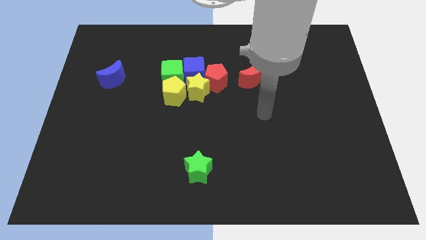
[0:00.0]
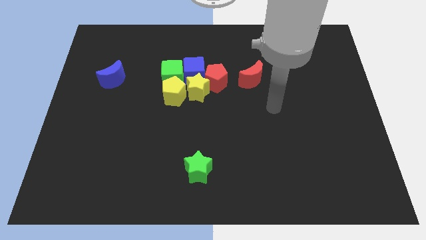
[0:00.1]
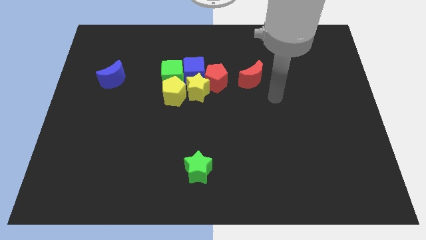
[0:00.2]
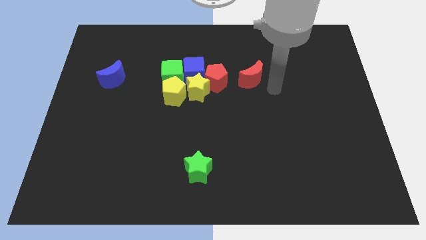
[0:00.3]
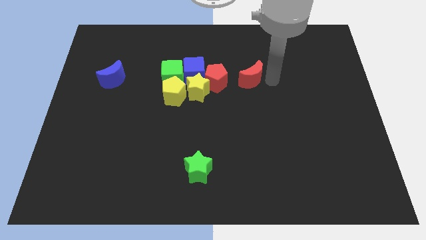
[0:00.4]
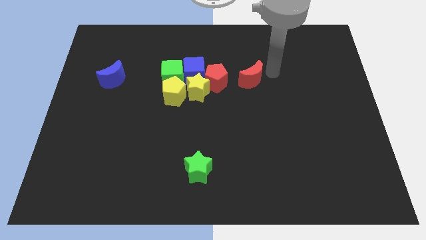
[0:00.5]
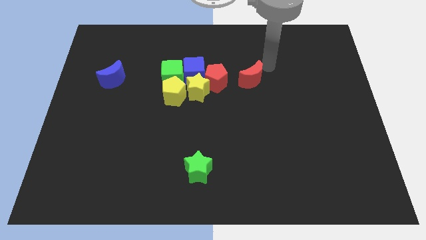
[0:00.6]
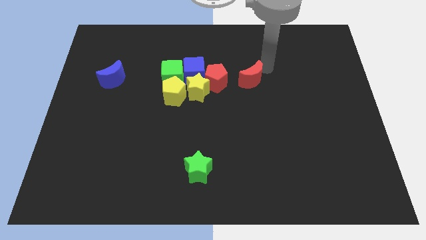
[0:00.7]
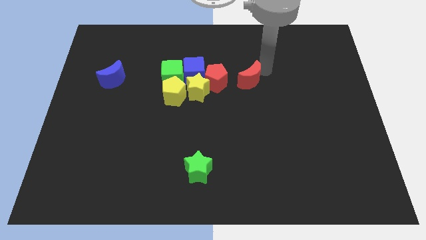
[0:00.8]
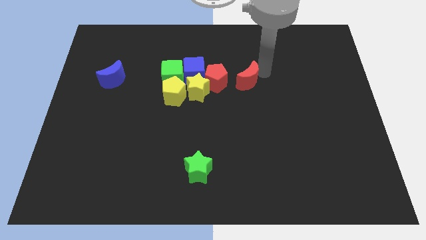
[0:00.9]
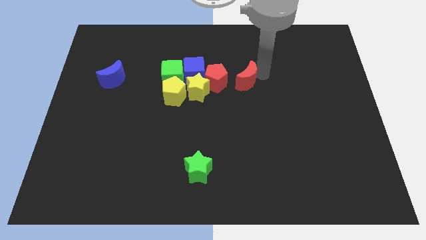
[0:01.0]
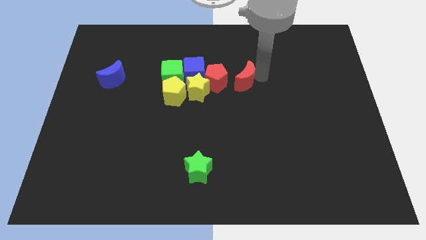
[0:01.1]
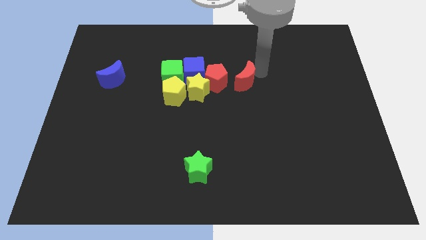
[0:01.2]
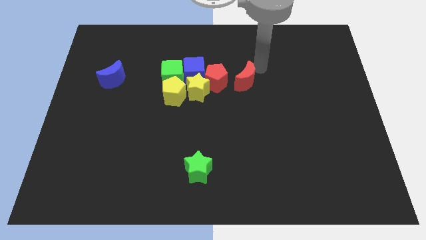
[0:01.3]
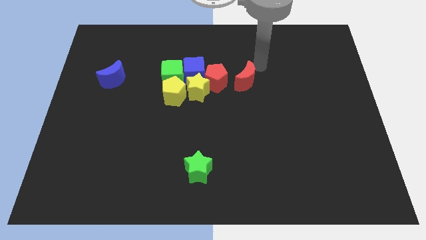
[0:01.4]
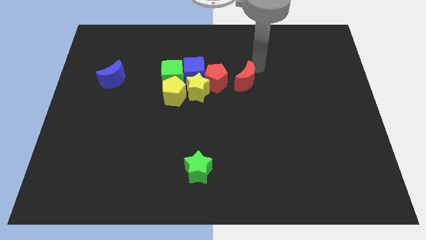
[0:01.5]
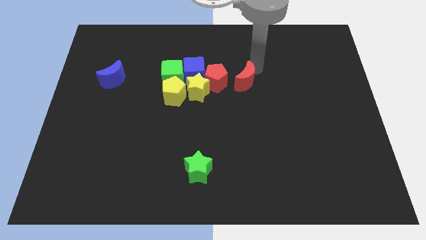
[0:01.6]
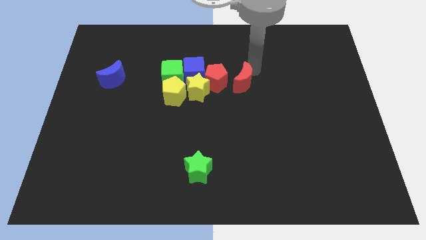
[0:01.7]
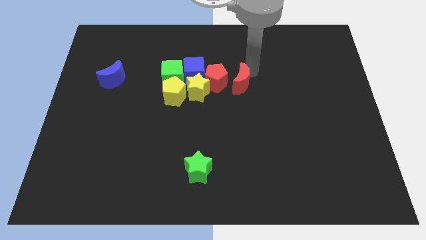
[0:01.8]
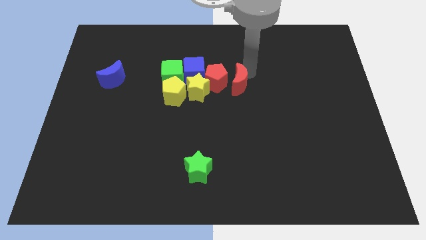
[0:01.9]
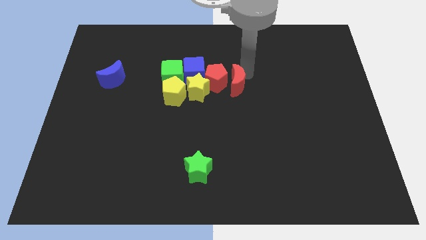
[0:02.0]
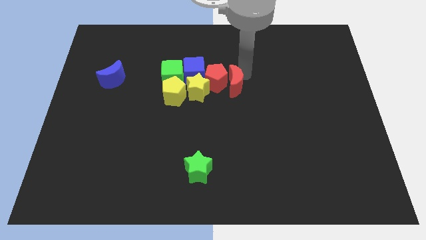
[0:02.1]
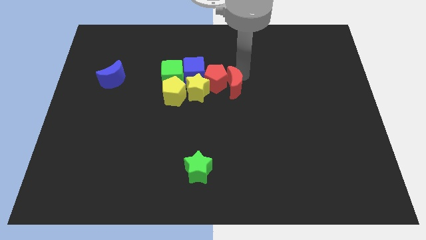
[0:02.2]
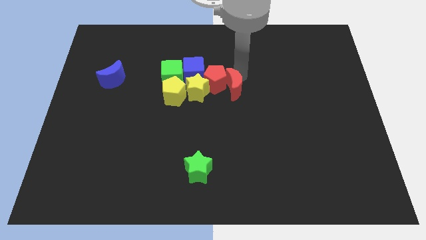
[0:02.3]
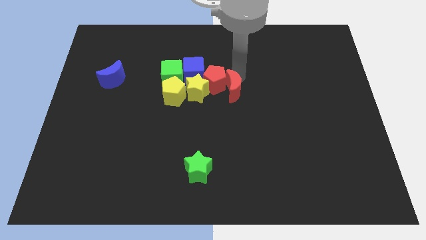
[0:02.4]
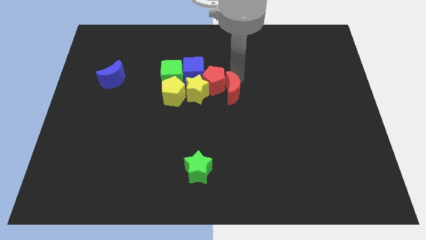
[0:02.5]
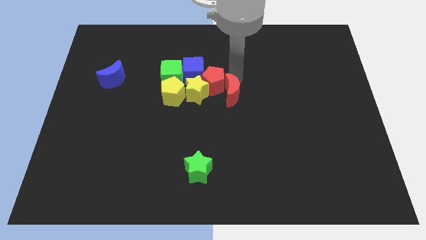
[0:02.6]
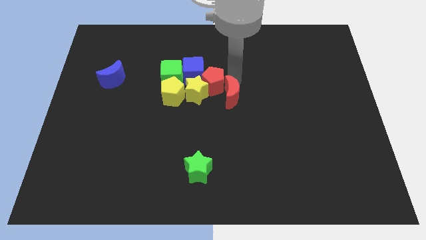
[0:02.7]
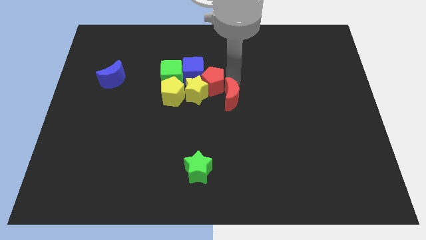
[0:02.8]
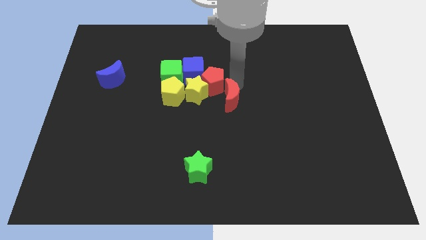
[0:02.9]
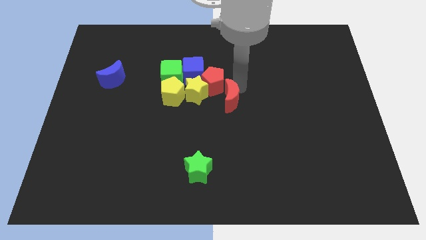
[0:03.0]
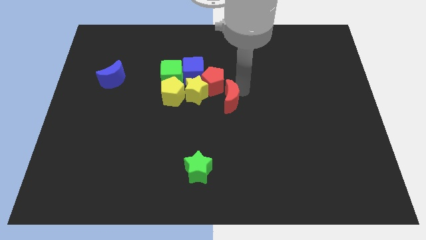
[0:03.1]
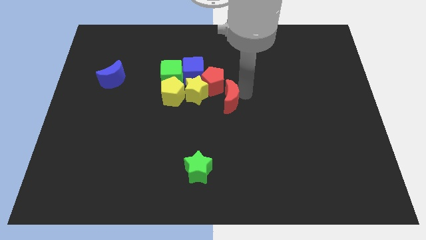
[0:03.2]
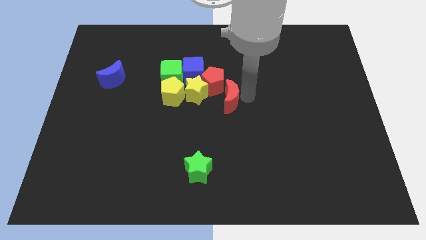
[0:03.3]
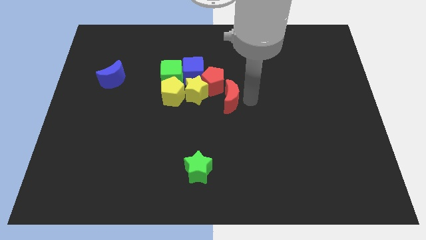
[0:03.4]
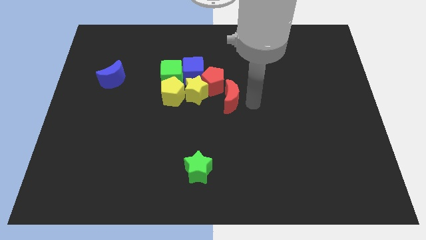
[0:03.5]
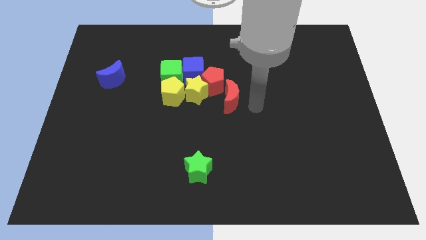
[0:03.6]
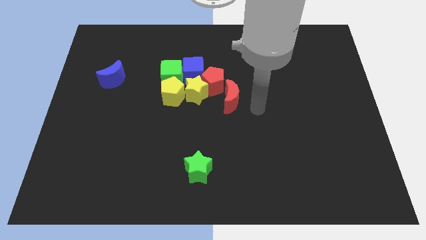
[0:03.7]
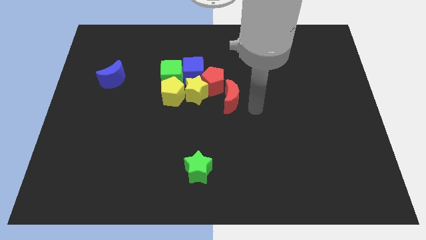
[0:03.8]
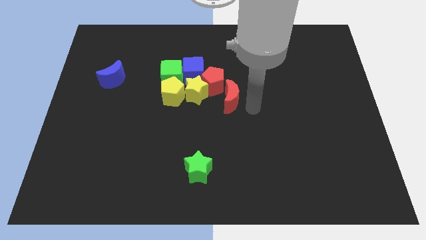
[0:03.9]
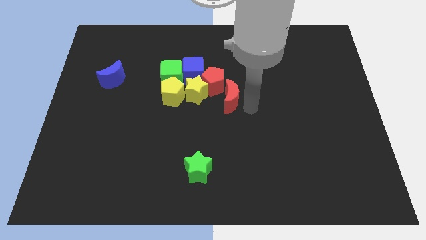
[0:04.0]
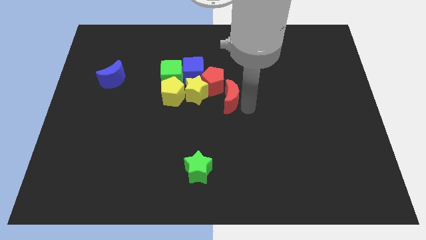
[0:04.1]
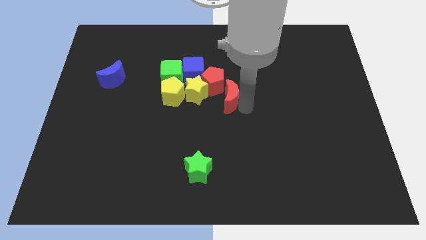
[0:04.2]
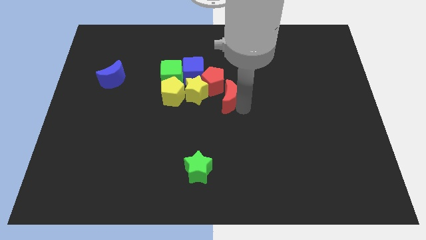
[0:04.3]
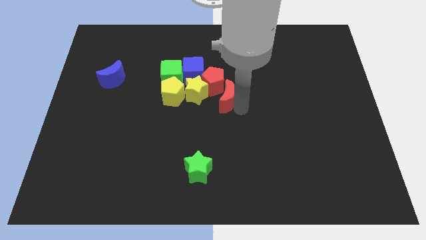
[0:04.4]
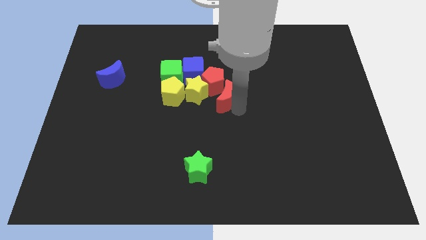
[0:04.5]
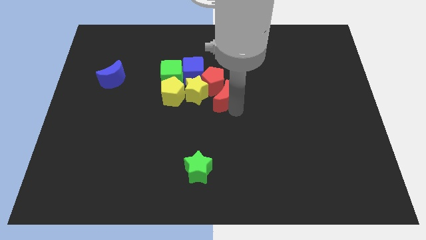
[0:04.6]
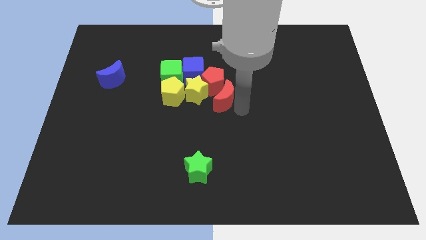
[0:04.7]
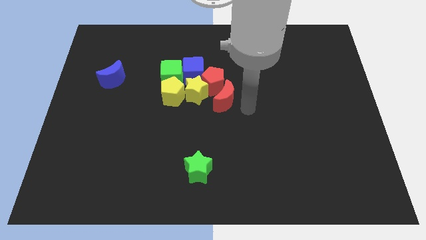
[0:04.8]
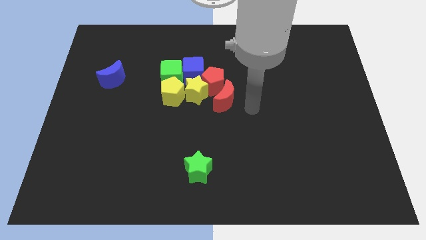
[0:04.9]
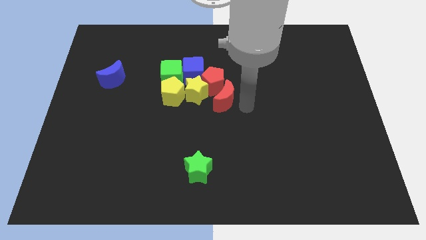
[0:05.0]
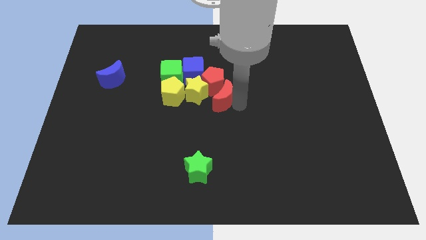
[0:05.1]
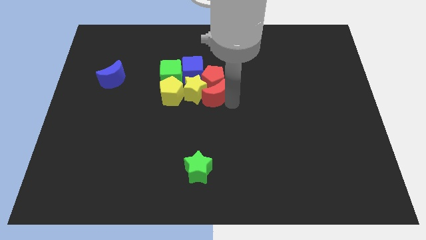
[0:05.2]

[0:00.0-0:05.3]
move the red moon to the yellow star

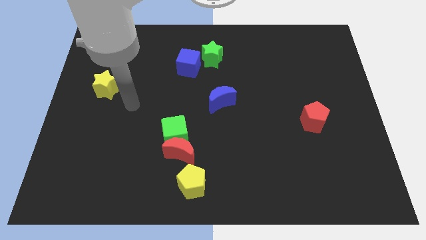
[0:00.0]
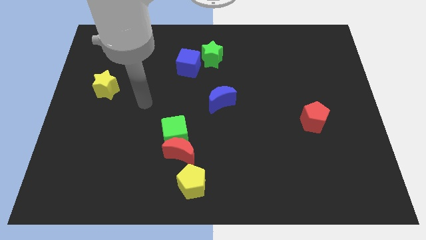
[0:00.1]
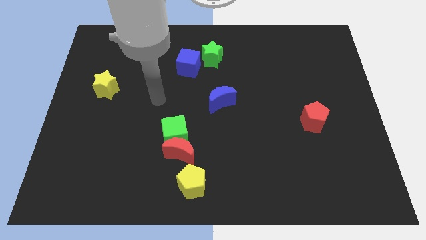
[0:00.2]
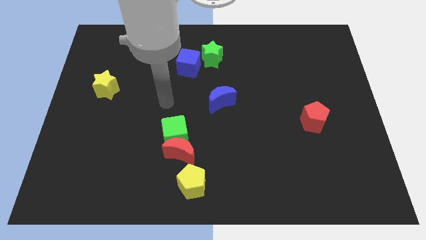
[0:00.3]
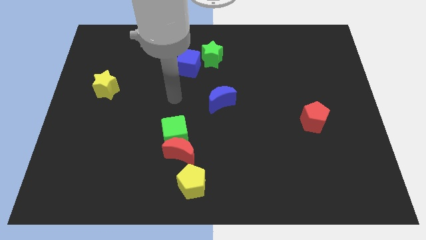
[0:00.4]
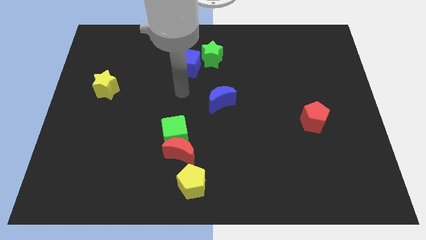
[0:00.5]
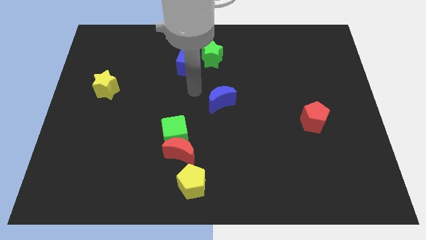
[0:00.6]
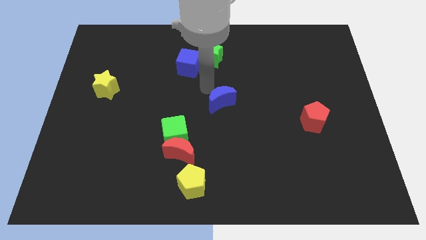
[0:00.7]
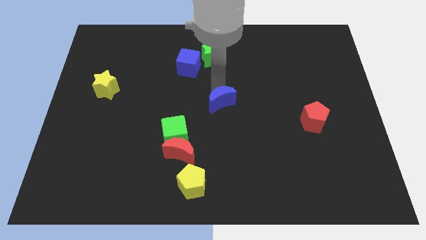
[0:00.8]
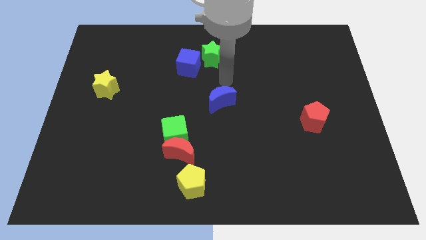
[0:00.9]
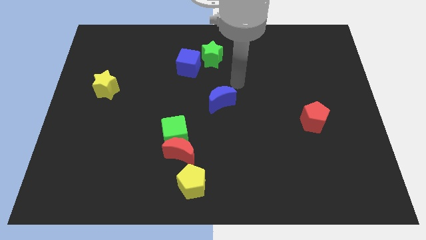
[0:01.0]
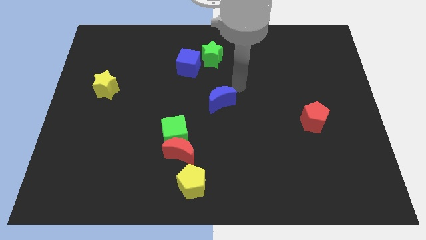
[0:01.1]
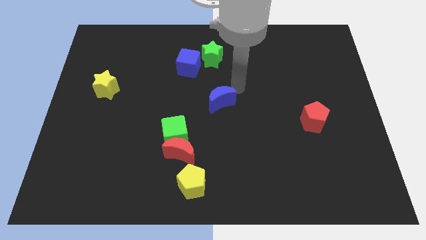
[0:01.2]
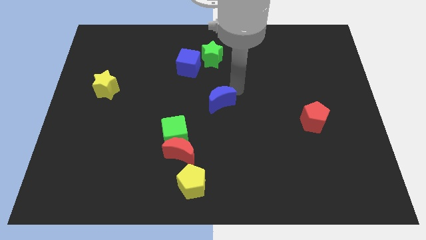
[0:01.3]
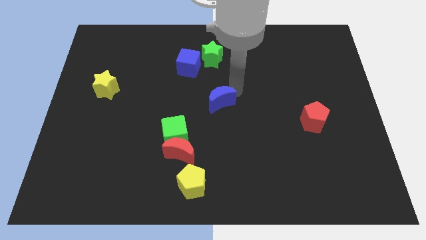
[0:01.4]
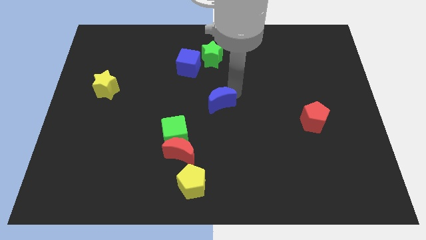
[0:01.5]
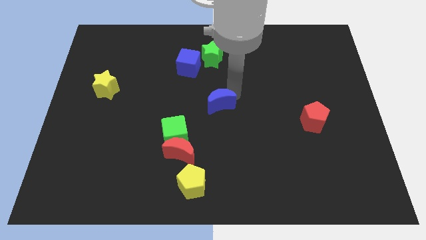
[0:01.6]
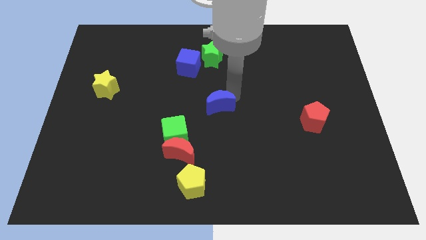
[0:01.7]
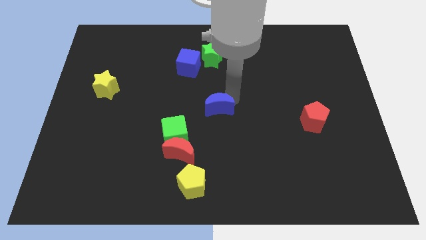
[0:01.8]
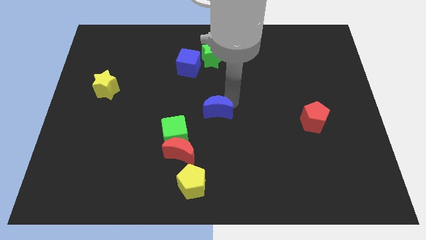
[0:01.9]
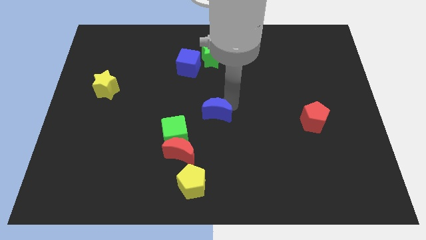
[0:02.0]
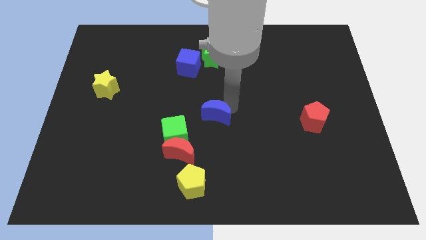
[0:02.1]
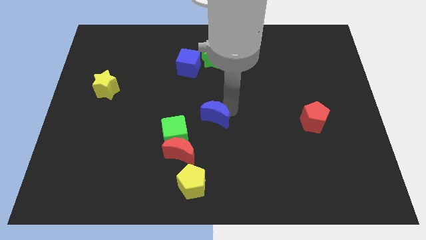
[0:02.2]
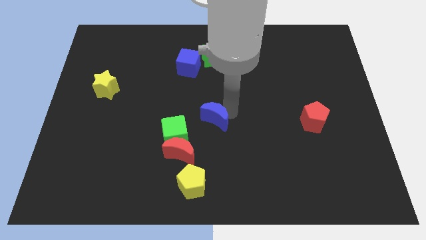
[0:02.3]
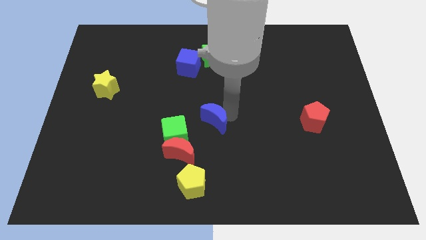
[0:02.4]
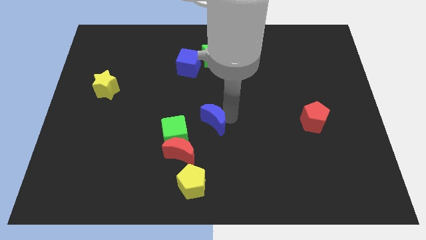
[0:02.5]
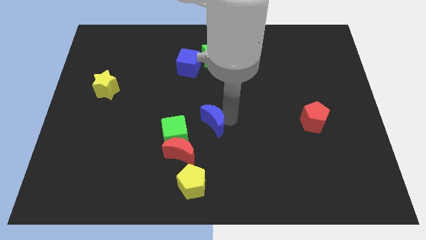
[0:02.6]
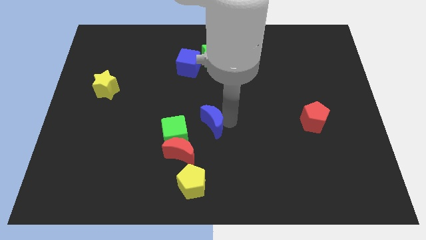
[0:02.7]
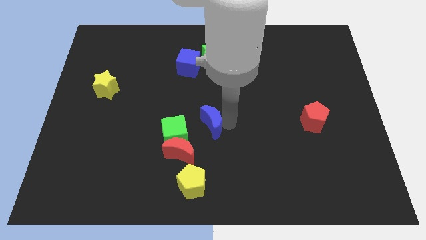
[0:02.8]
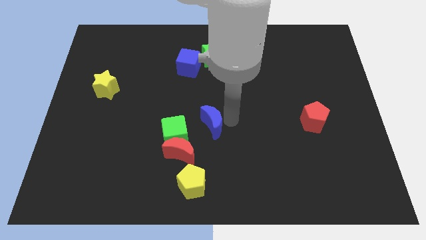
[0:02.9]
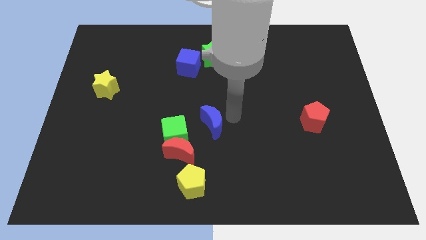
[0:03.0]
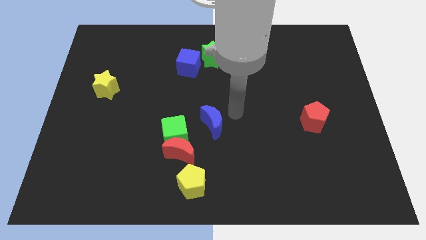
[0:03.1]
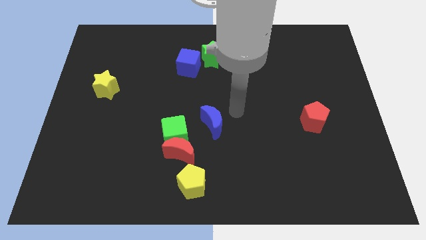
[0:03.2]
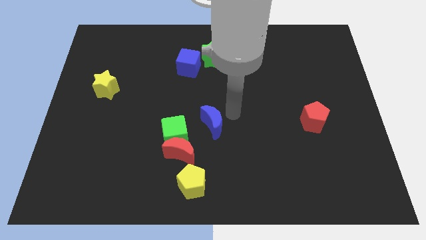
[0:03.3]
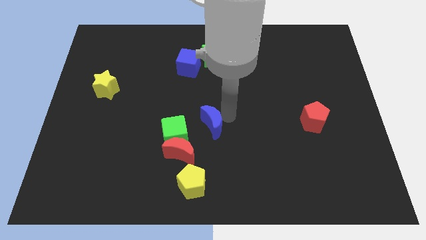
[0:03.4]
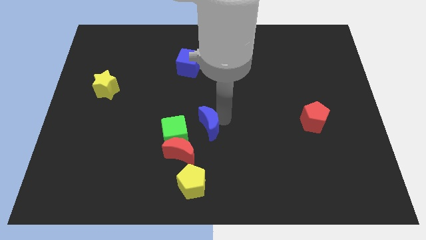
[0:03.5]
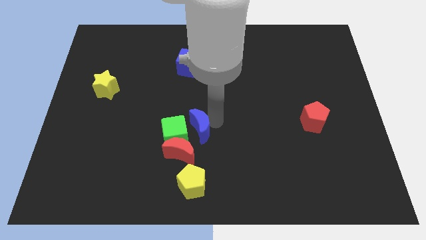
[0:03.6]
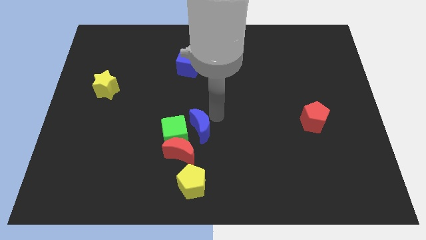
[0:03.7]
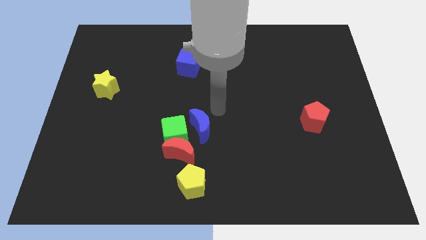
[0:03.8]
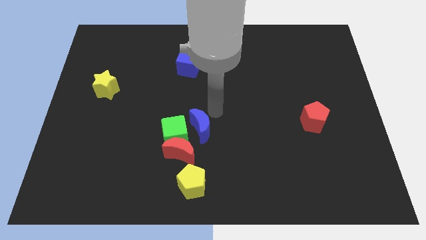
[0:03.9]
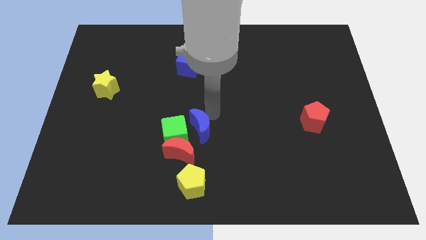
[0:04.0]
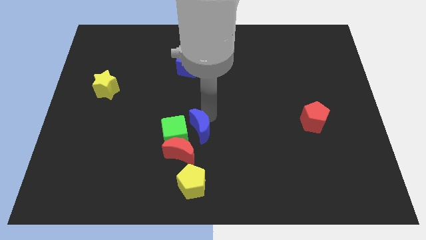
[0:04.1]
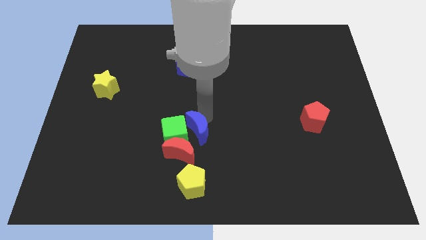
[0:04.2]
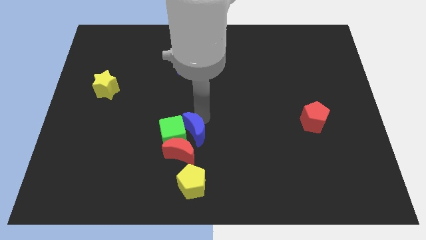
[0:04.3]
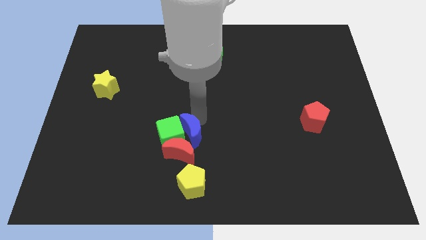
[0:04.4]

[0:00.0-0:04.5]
put the blue moon to the red moon
